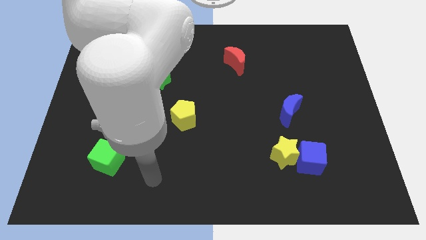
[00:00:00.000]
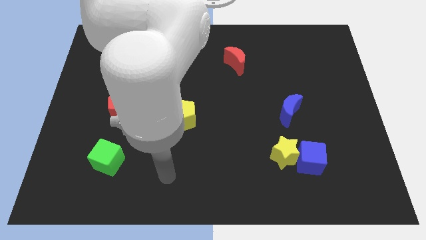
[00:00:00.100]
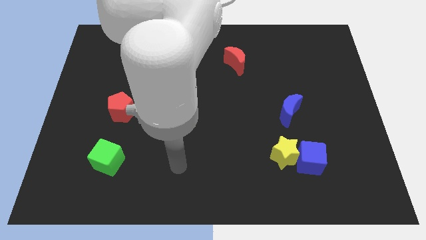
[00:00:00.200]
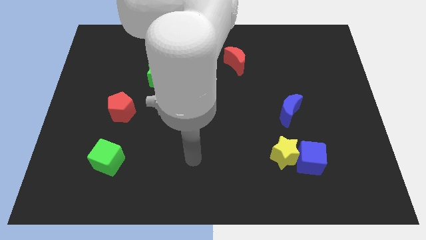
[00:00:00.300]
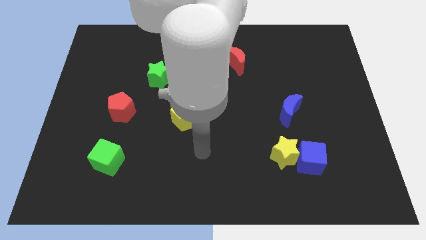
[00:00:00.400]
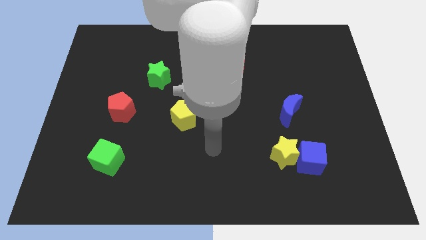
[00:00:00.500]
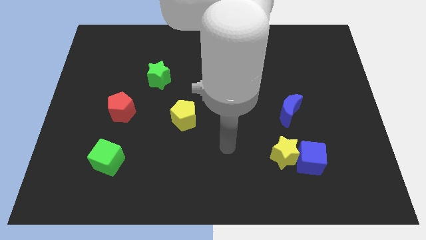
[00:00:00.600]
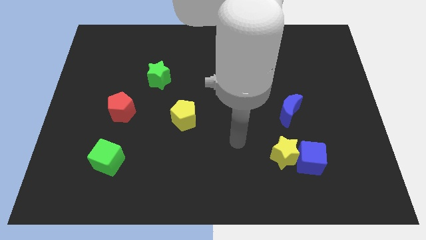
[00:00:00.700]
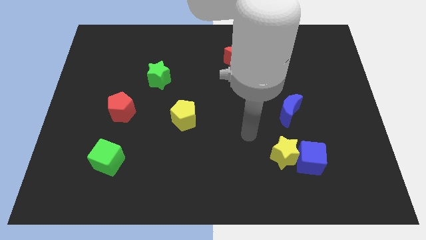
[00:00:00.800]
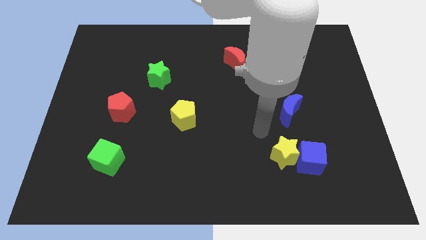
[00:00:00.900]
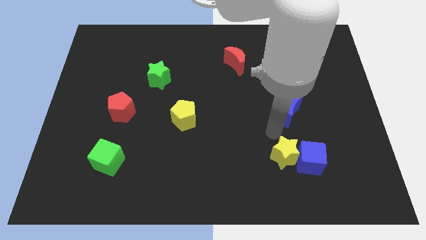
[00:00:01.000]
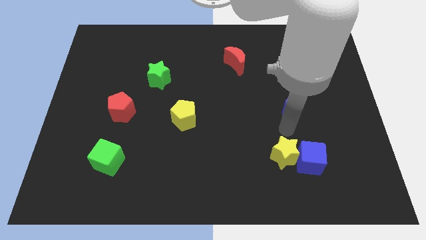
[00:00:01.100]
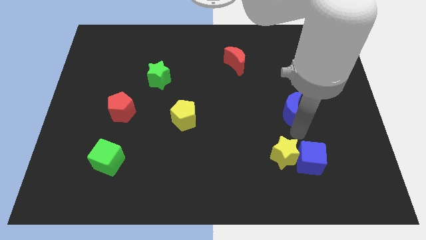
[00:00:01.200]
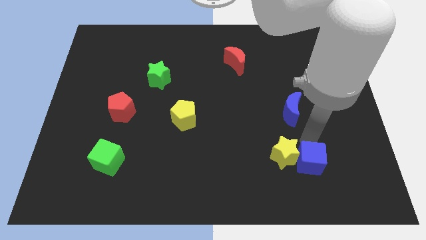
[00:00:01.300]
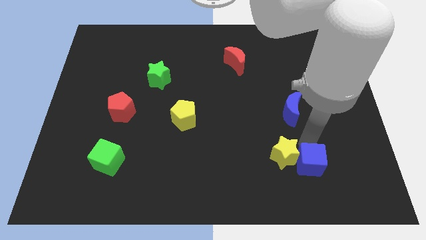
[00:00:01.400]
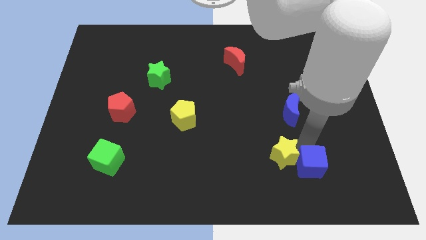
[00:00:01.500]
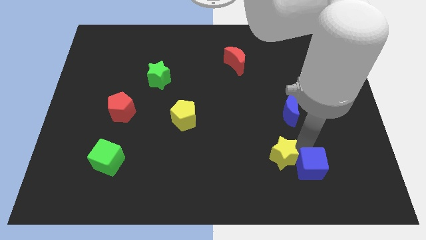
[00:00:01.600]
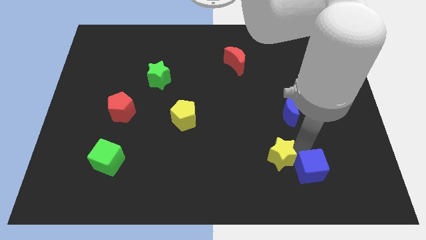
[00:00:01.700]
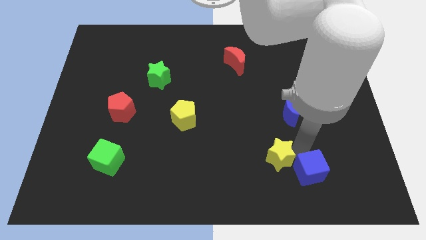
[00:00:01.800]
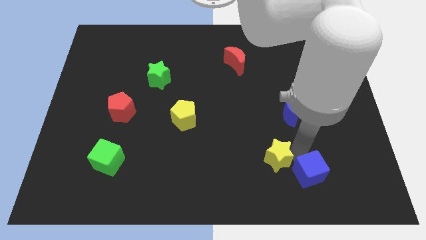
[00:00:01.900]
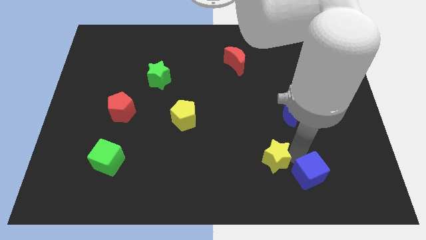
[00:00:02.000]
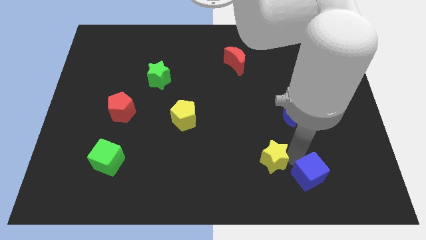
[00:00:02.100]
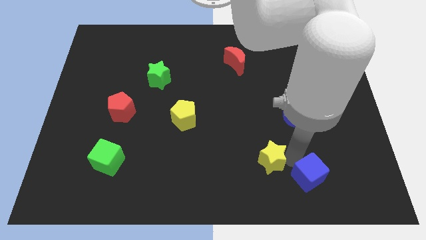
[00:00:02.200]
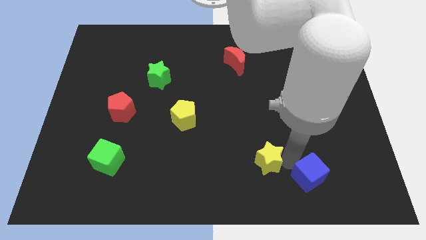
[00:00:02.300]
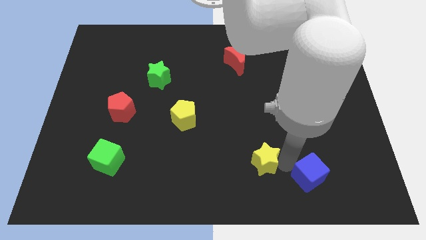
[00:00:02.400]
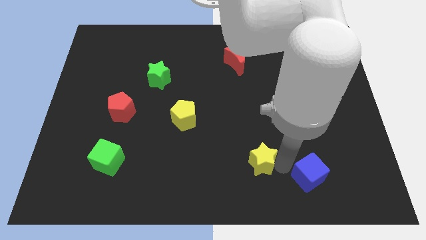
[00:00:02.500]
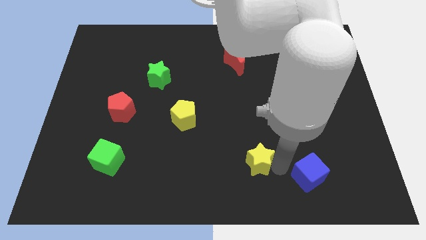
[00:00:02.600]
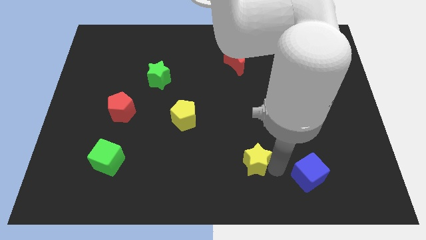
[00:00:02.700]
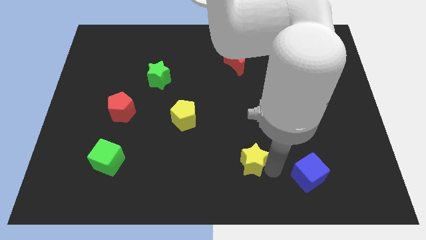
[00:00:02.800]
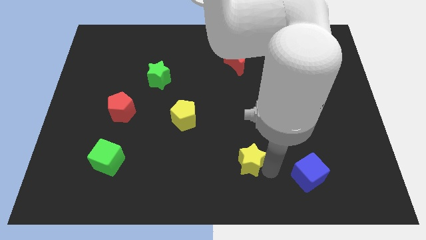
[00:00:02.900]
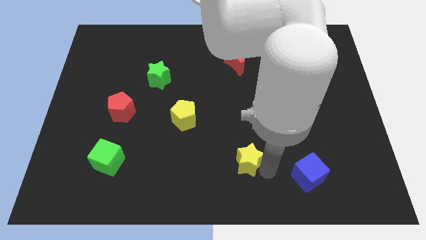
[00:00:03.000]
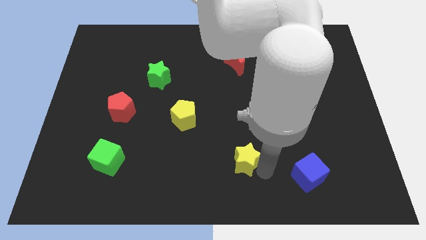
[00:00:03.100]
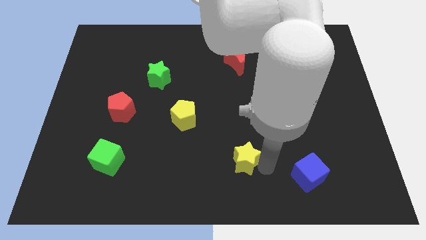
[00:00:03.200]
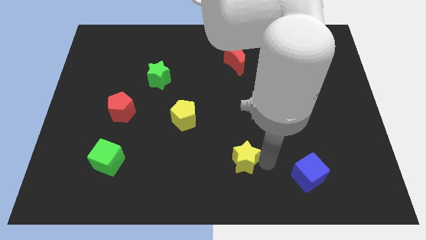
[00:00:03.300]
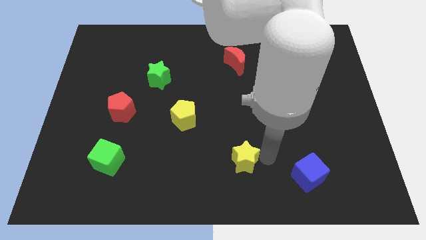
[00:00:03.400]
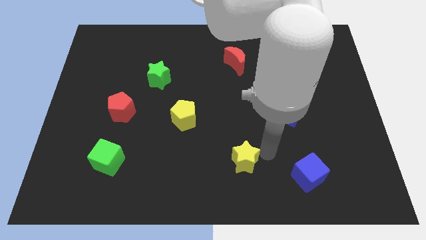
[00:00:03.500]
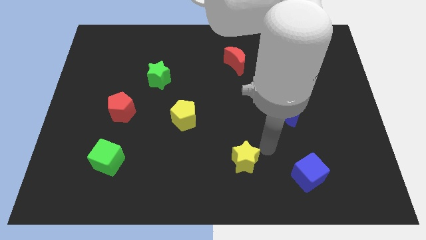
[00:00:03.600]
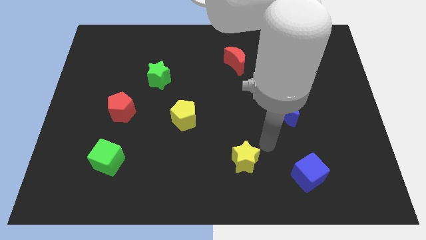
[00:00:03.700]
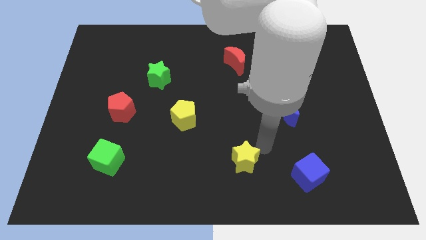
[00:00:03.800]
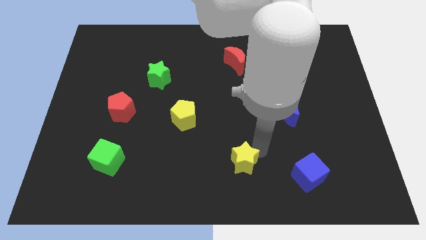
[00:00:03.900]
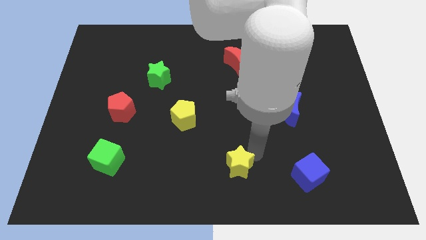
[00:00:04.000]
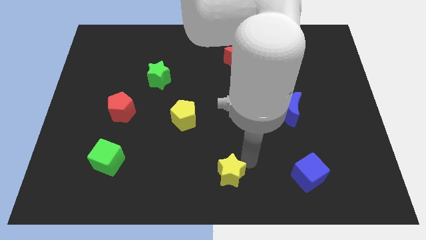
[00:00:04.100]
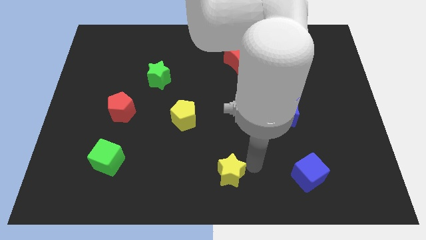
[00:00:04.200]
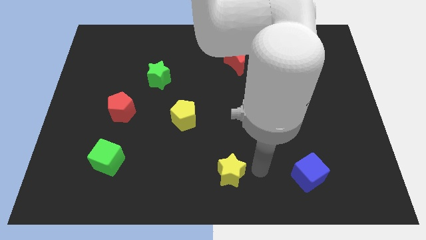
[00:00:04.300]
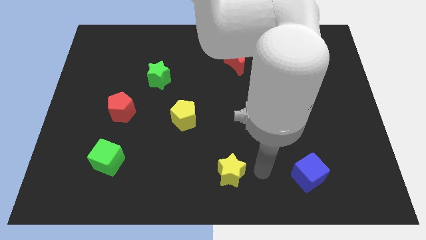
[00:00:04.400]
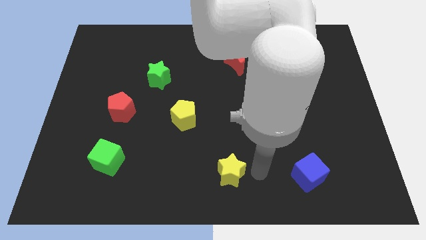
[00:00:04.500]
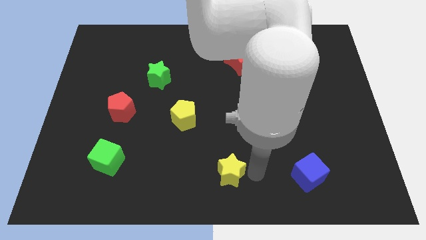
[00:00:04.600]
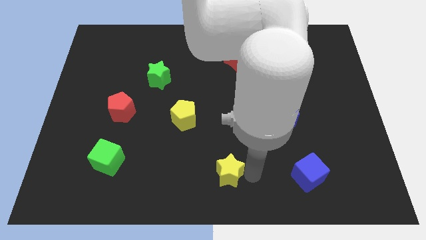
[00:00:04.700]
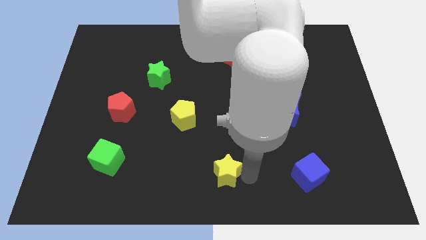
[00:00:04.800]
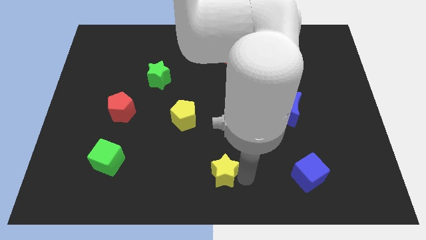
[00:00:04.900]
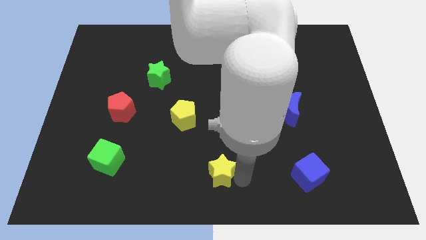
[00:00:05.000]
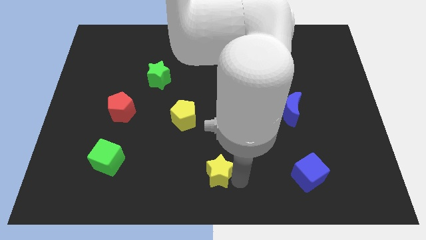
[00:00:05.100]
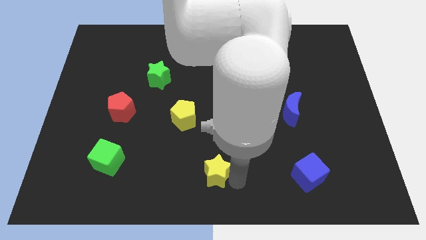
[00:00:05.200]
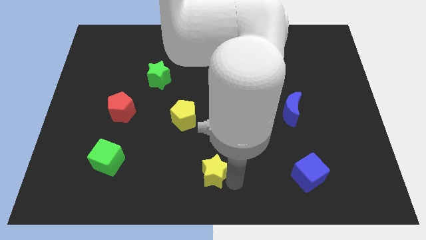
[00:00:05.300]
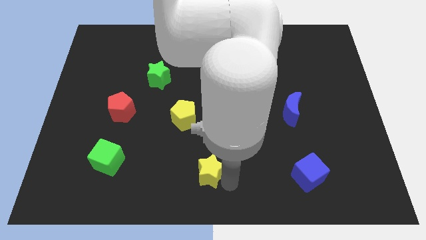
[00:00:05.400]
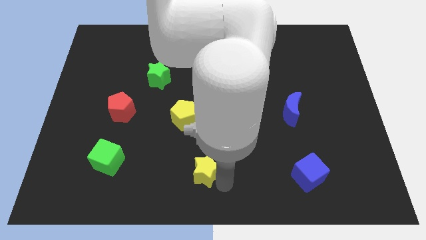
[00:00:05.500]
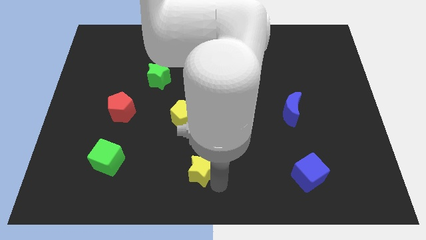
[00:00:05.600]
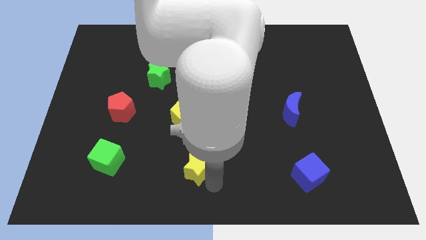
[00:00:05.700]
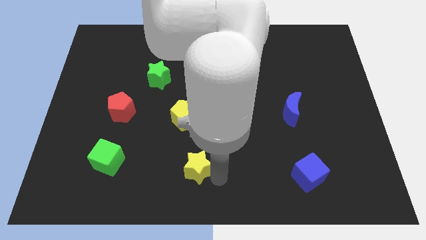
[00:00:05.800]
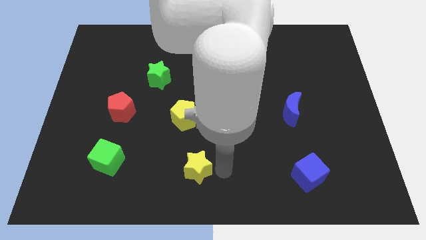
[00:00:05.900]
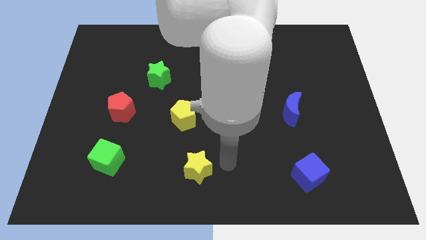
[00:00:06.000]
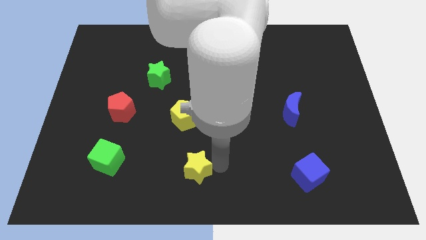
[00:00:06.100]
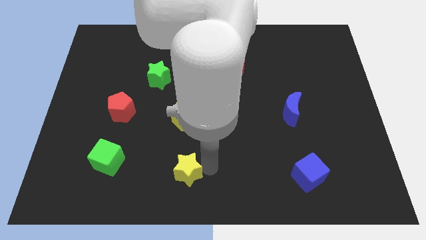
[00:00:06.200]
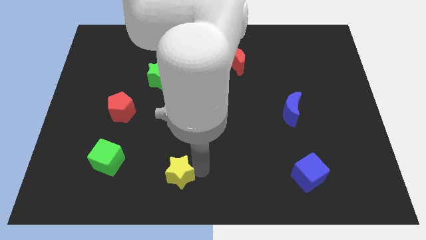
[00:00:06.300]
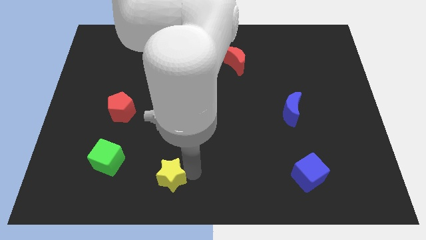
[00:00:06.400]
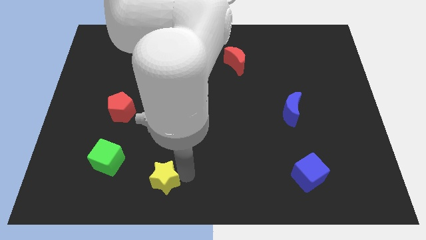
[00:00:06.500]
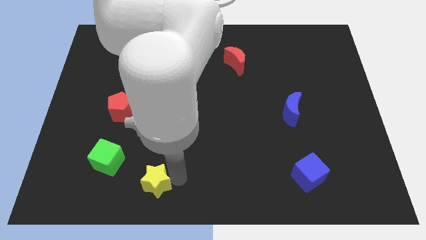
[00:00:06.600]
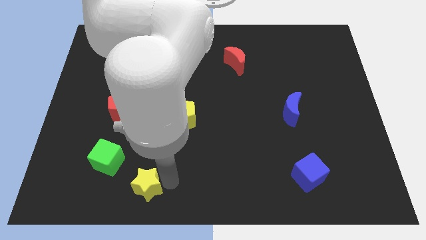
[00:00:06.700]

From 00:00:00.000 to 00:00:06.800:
put the yellow star to the bottom right side of the green cube

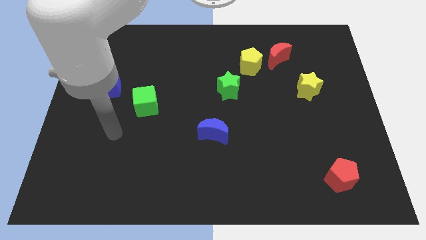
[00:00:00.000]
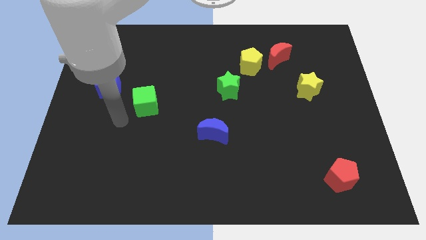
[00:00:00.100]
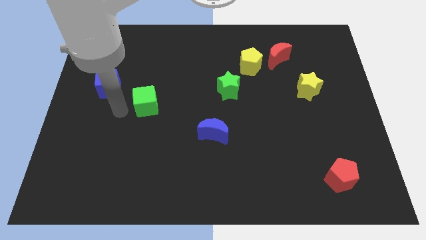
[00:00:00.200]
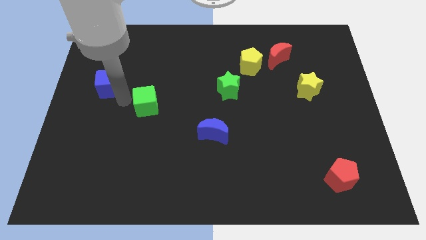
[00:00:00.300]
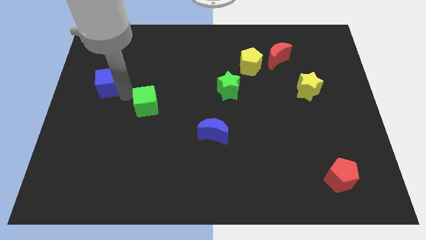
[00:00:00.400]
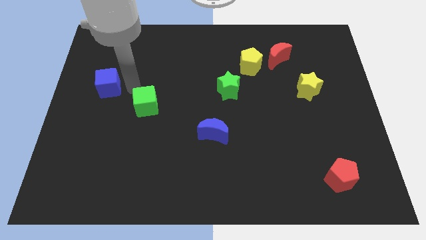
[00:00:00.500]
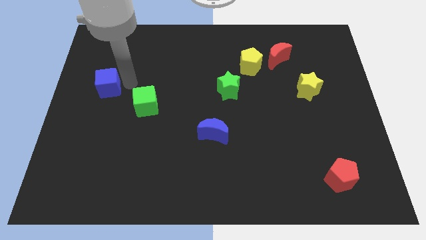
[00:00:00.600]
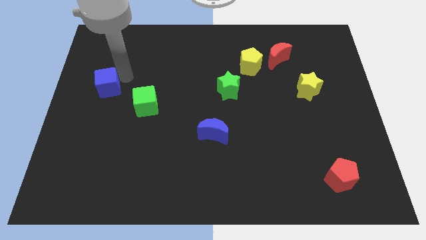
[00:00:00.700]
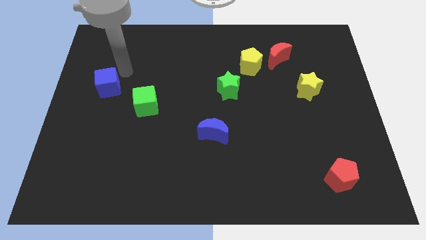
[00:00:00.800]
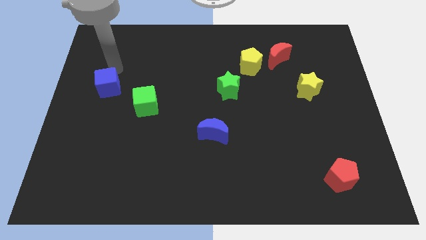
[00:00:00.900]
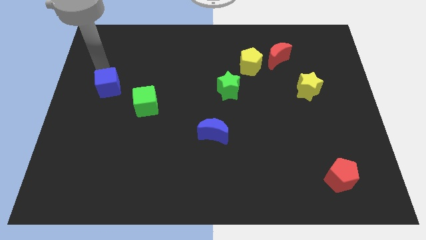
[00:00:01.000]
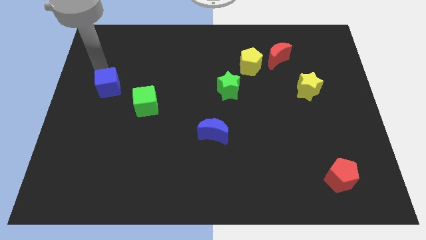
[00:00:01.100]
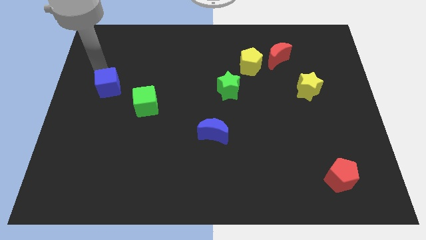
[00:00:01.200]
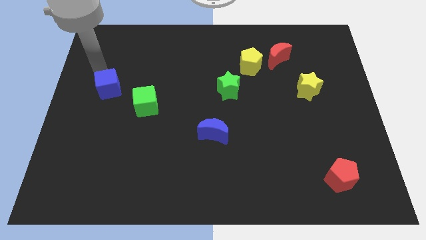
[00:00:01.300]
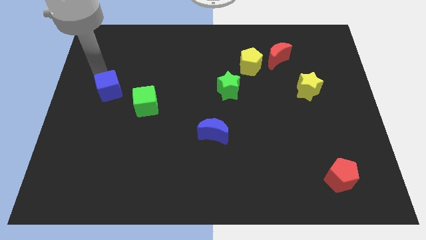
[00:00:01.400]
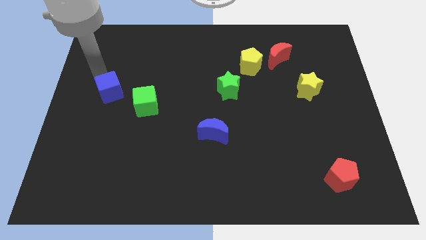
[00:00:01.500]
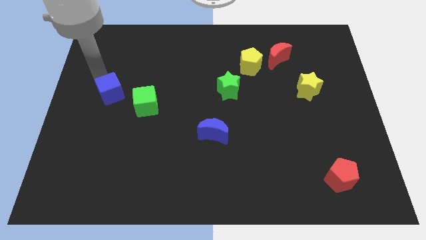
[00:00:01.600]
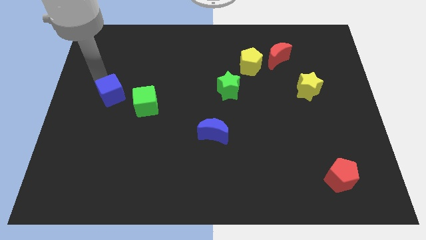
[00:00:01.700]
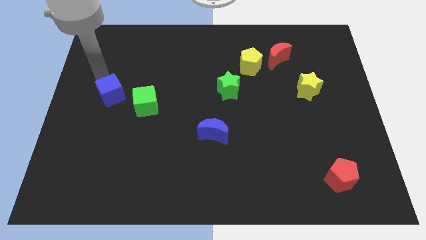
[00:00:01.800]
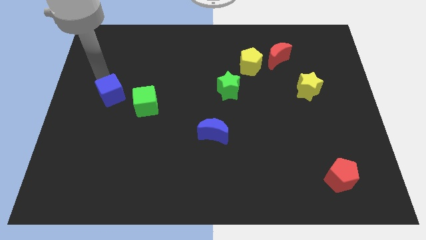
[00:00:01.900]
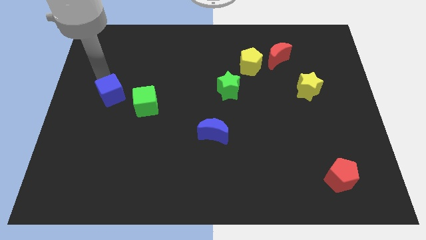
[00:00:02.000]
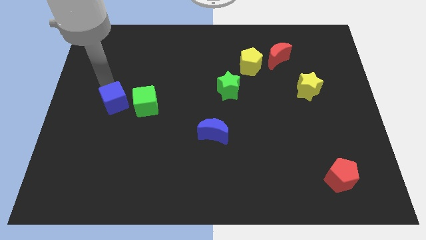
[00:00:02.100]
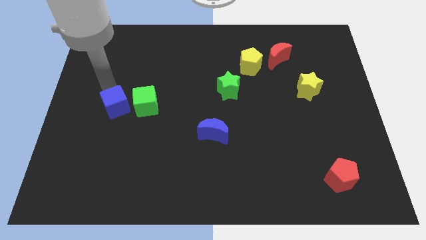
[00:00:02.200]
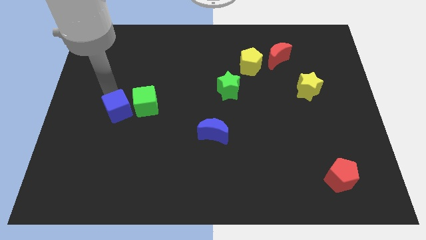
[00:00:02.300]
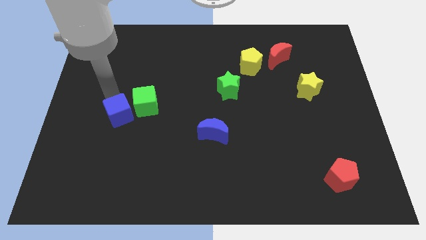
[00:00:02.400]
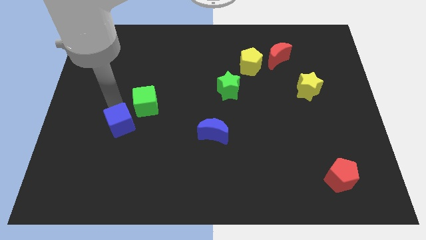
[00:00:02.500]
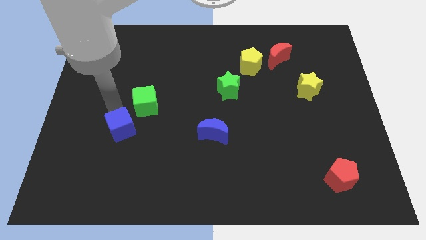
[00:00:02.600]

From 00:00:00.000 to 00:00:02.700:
move the blue cube to the bottom side of the green cube
